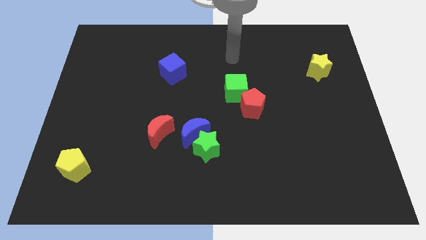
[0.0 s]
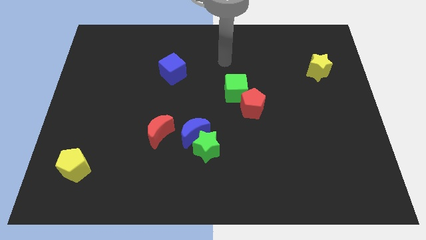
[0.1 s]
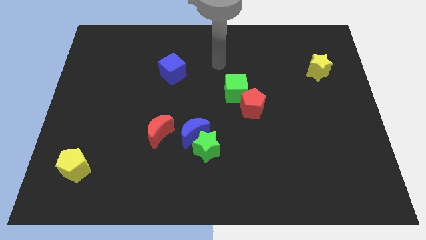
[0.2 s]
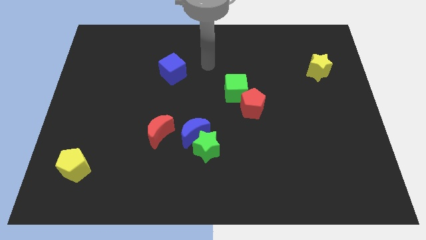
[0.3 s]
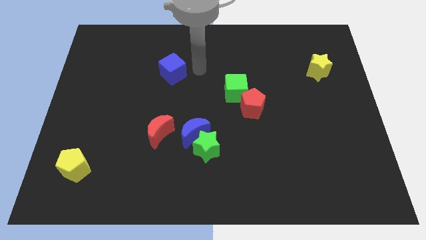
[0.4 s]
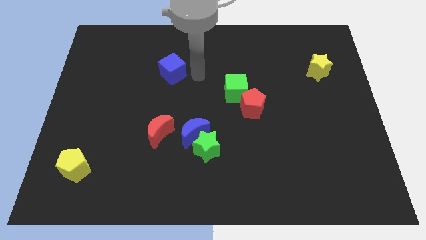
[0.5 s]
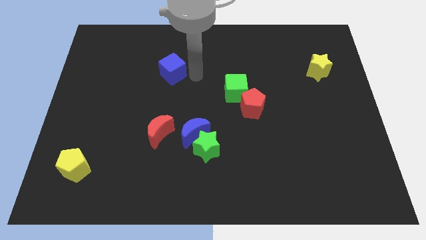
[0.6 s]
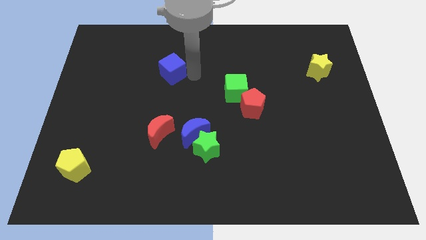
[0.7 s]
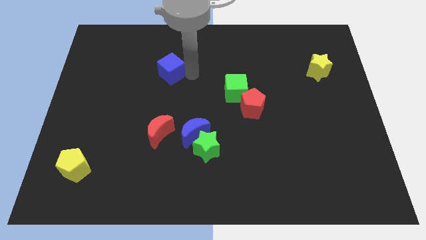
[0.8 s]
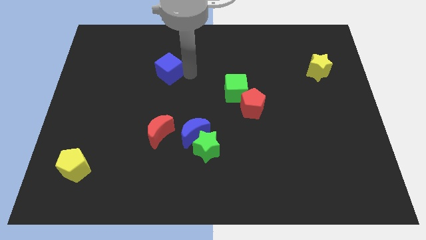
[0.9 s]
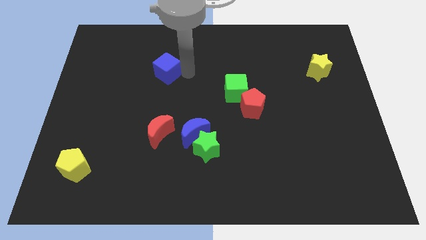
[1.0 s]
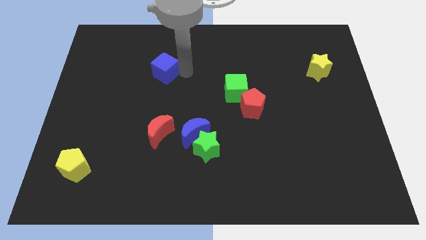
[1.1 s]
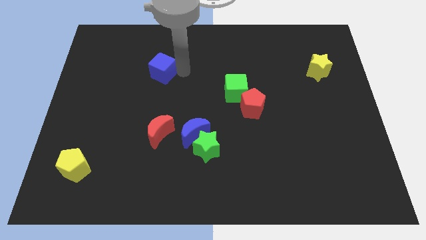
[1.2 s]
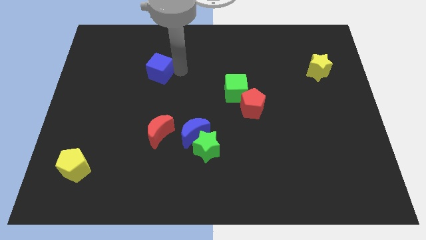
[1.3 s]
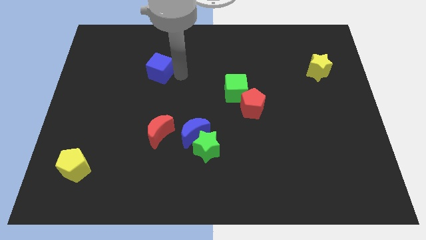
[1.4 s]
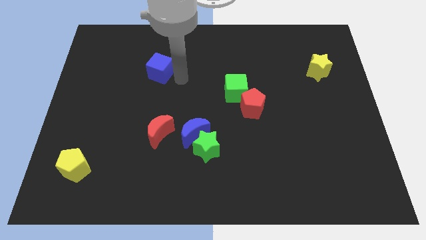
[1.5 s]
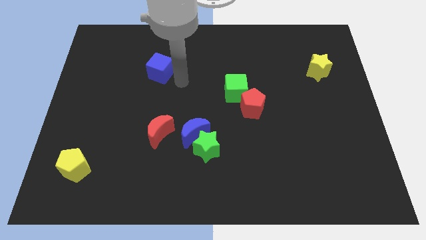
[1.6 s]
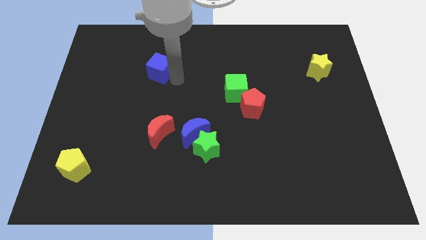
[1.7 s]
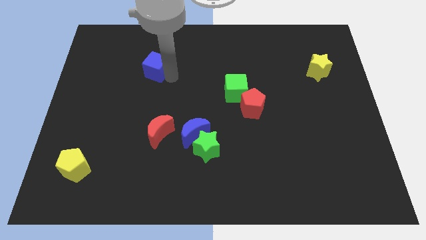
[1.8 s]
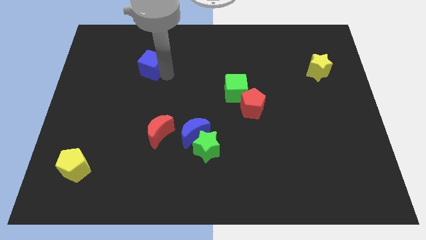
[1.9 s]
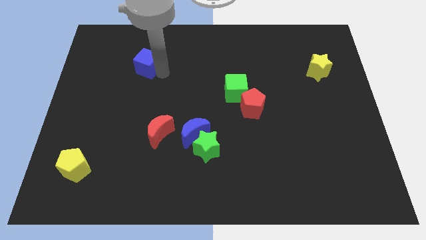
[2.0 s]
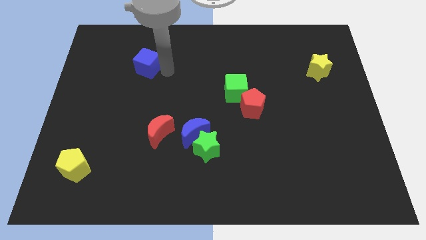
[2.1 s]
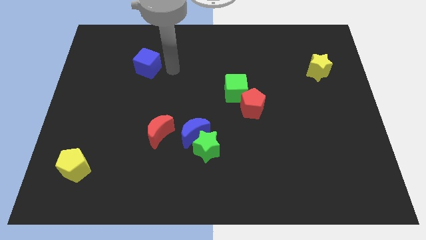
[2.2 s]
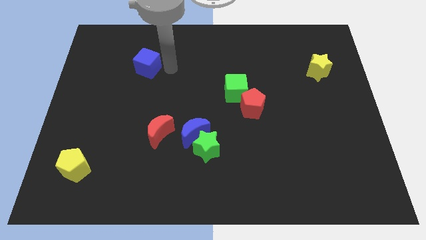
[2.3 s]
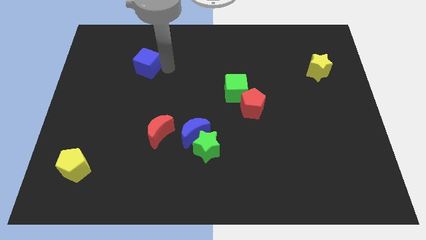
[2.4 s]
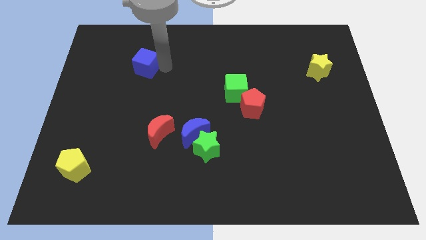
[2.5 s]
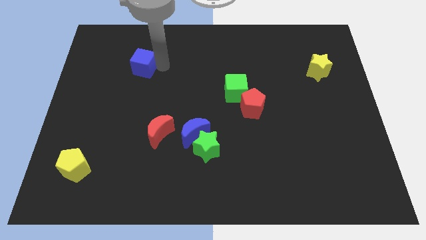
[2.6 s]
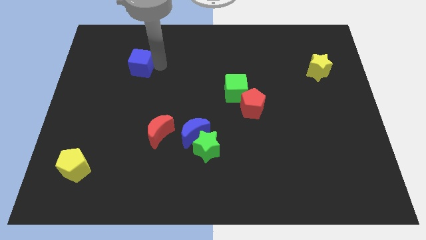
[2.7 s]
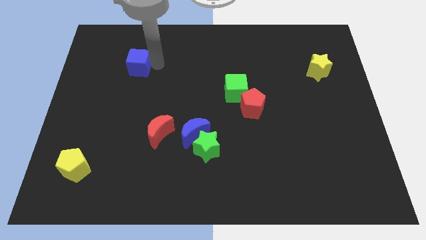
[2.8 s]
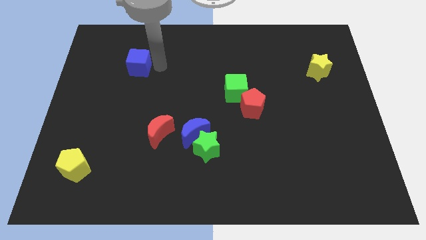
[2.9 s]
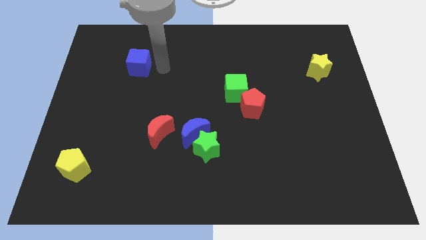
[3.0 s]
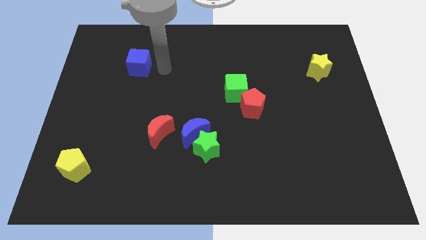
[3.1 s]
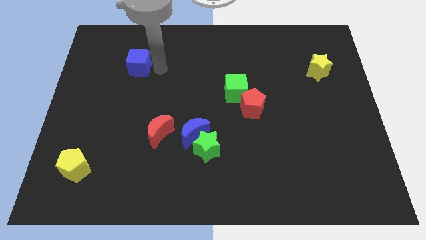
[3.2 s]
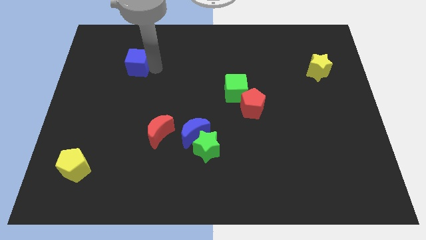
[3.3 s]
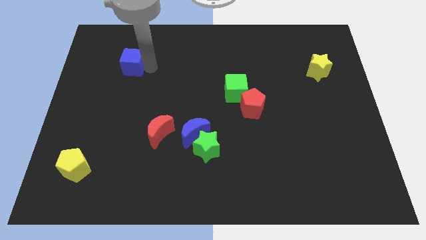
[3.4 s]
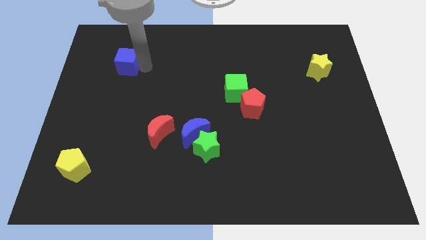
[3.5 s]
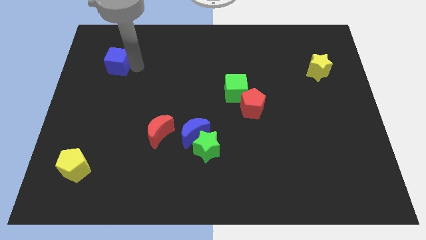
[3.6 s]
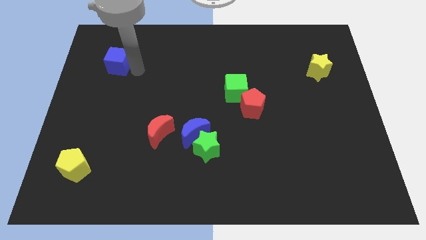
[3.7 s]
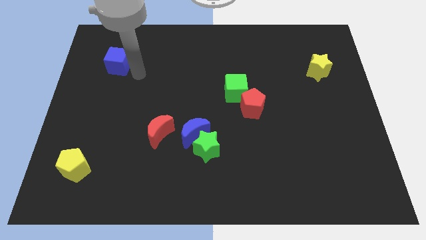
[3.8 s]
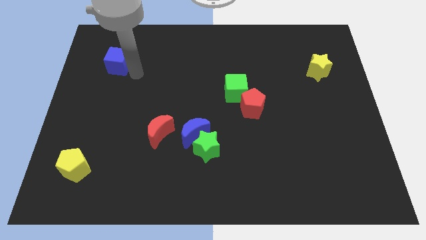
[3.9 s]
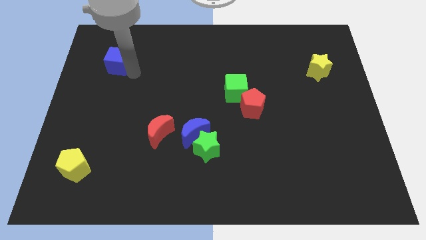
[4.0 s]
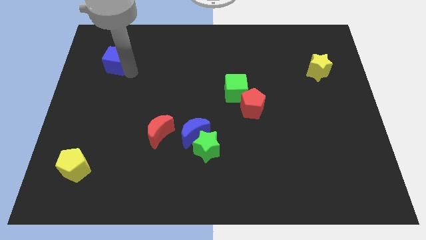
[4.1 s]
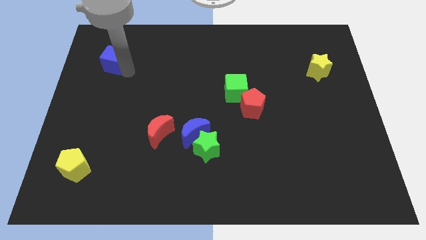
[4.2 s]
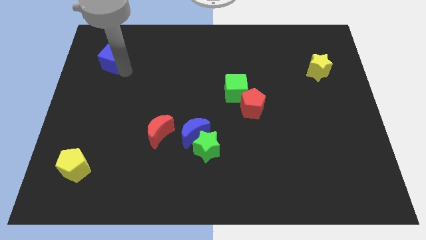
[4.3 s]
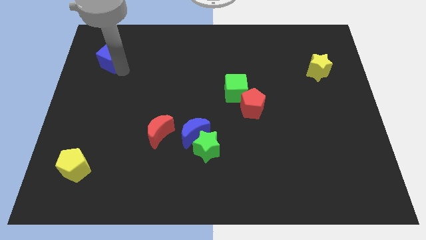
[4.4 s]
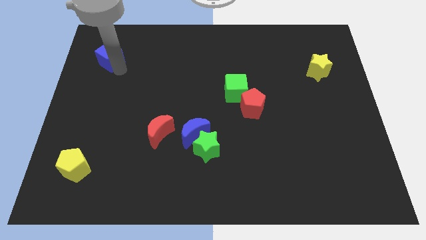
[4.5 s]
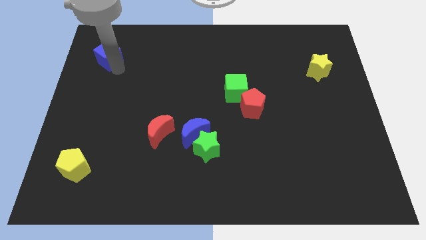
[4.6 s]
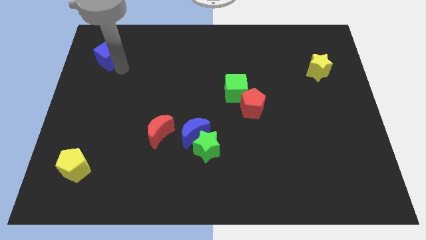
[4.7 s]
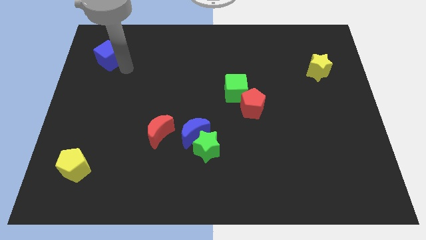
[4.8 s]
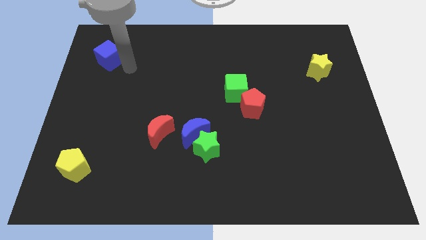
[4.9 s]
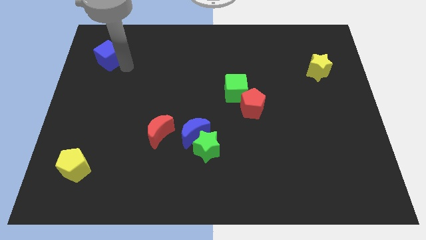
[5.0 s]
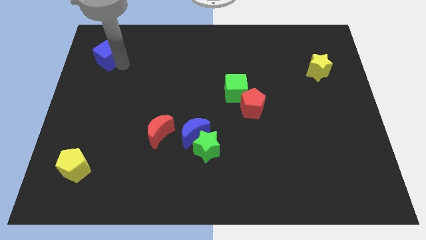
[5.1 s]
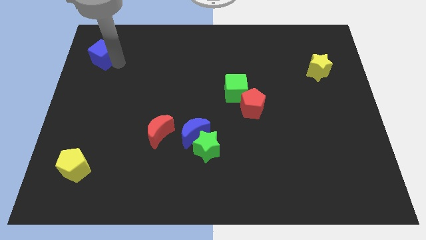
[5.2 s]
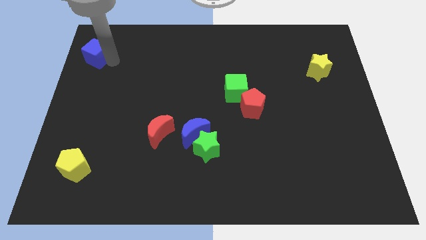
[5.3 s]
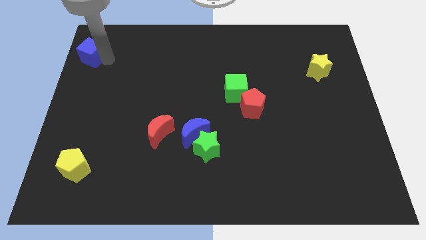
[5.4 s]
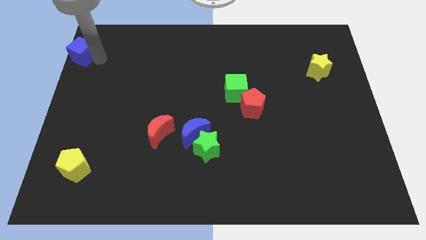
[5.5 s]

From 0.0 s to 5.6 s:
put the blue cube to the upper left corner

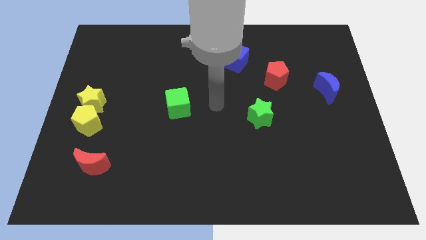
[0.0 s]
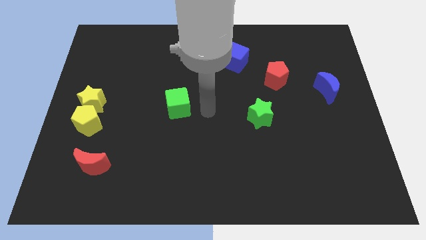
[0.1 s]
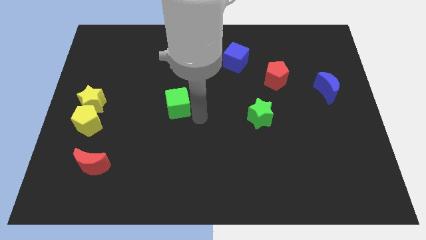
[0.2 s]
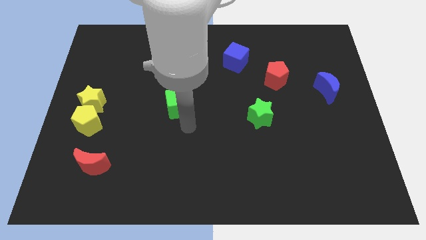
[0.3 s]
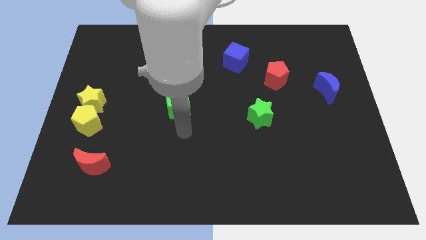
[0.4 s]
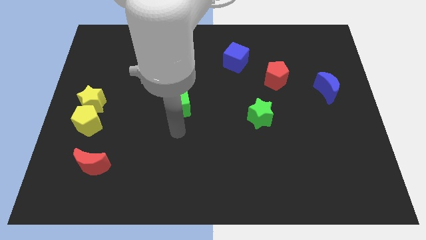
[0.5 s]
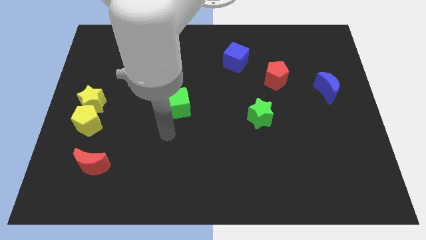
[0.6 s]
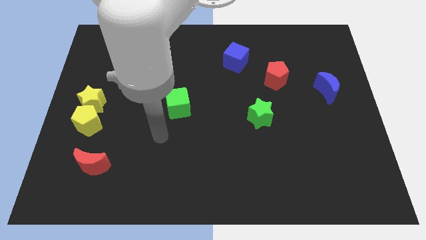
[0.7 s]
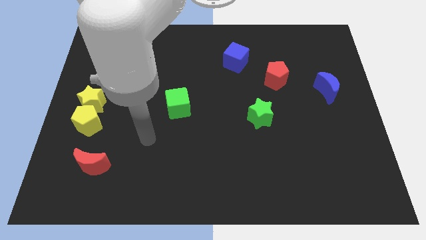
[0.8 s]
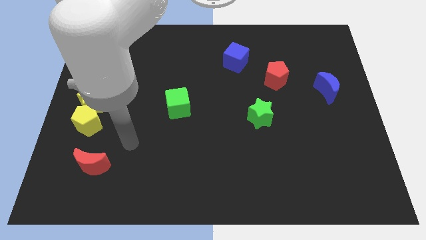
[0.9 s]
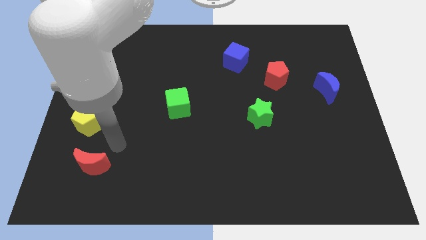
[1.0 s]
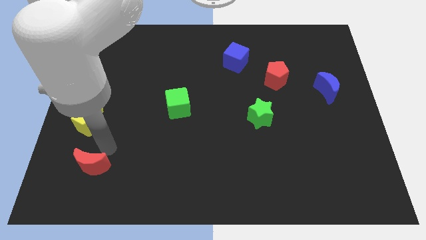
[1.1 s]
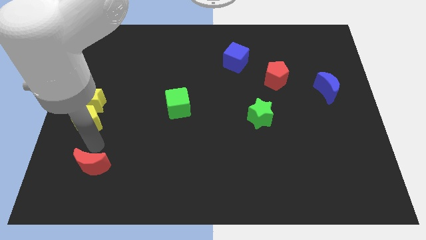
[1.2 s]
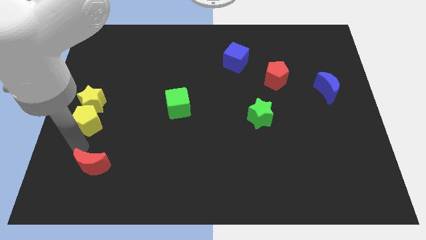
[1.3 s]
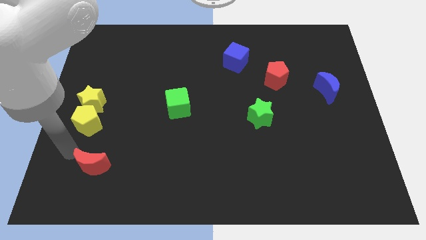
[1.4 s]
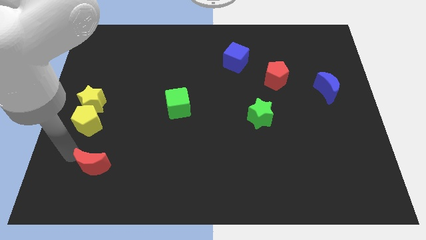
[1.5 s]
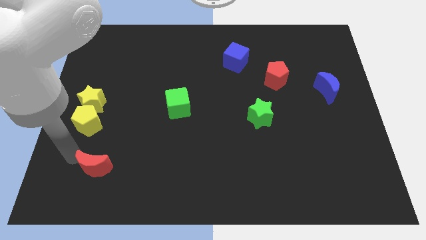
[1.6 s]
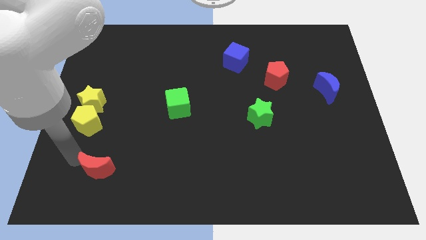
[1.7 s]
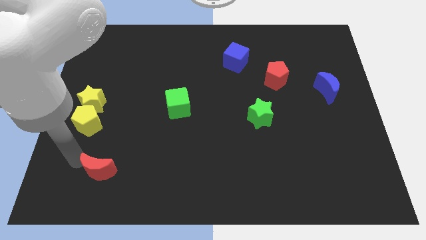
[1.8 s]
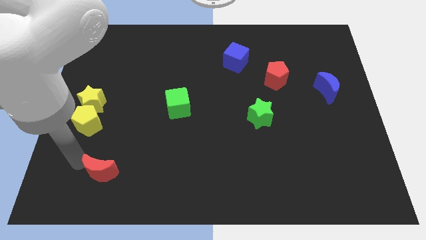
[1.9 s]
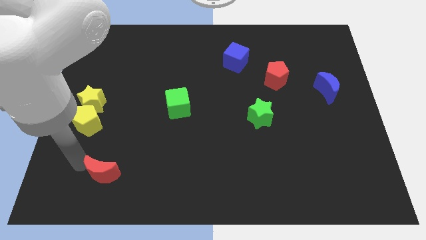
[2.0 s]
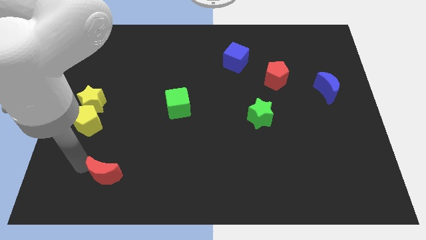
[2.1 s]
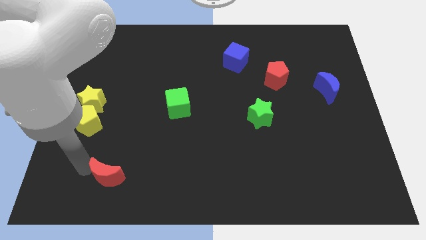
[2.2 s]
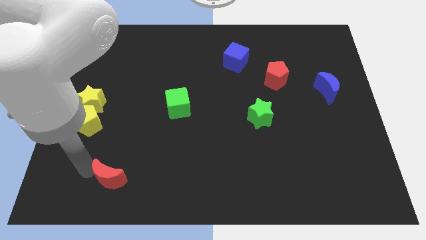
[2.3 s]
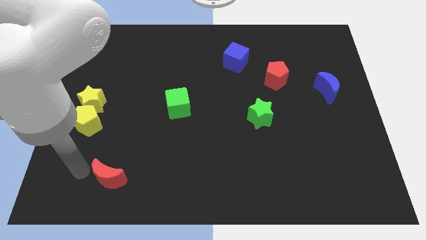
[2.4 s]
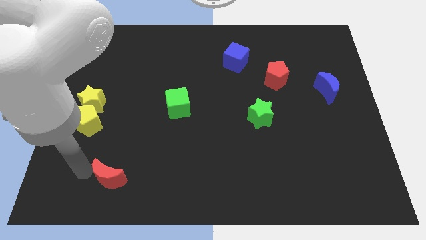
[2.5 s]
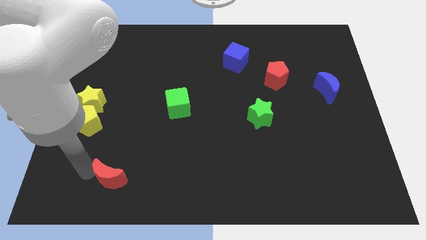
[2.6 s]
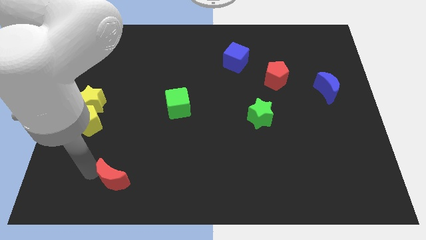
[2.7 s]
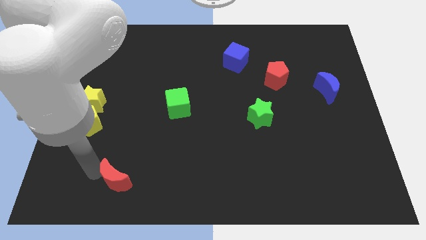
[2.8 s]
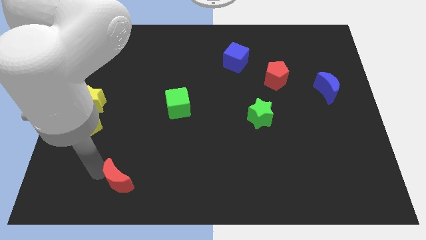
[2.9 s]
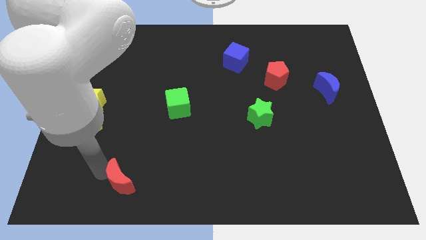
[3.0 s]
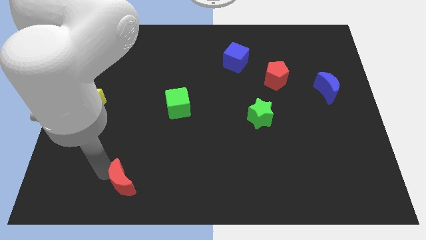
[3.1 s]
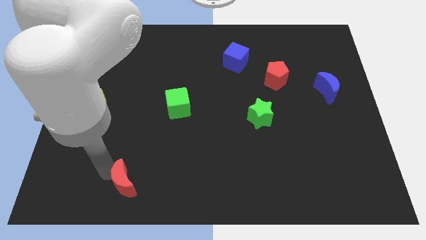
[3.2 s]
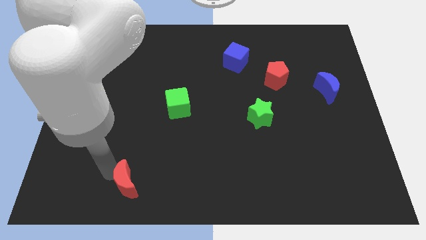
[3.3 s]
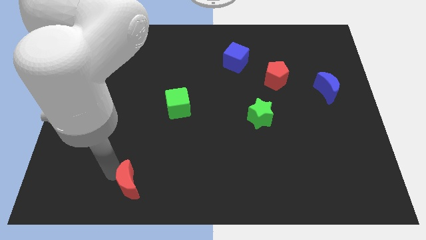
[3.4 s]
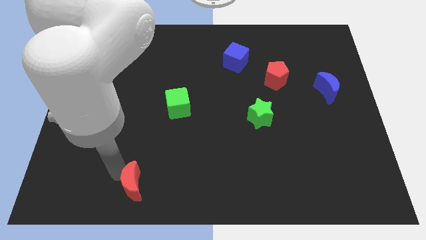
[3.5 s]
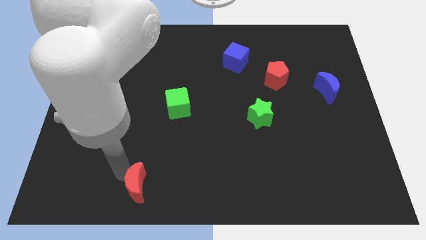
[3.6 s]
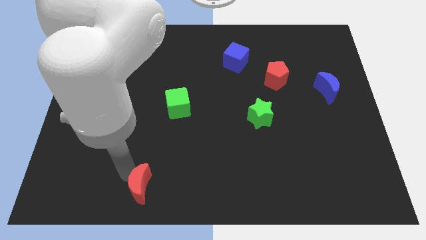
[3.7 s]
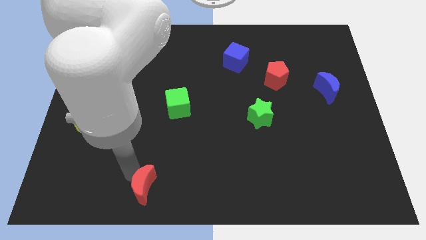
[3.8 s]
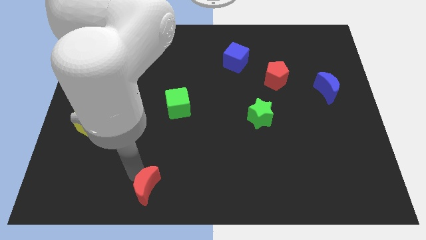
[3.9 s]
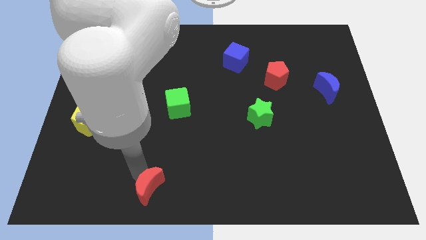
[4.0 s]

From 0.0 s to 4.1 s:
move the red moon to the bottom
